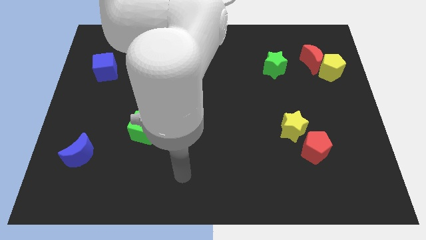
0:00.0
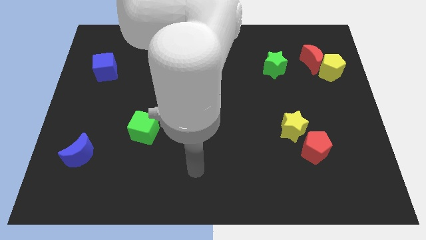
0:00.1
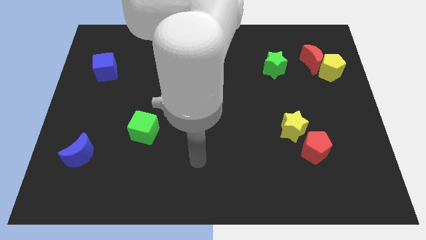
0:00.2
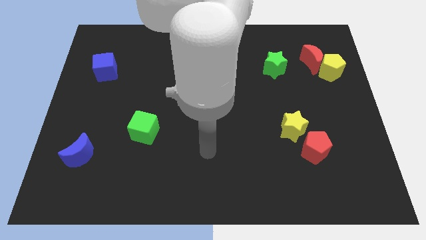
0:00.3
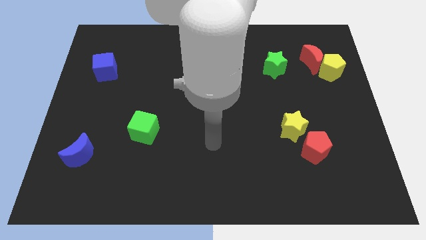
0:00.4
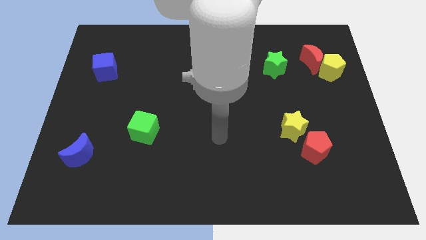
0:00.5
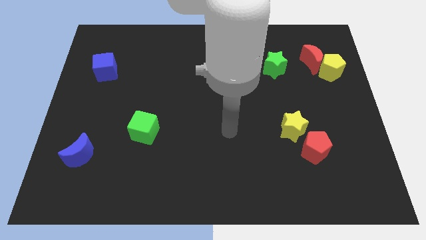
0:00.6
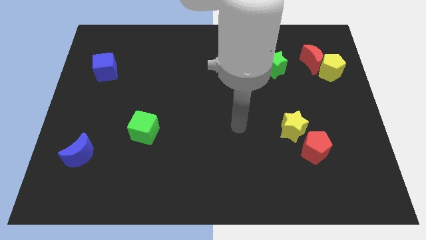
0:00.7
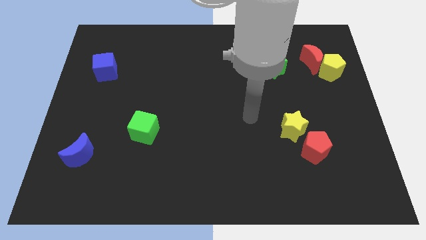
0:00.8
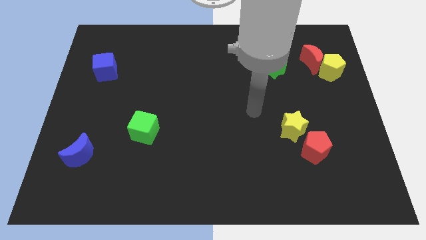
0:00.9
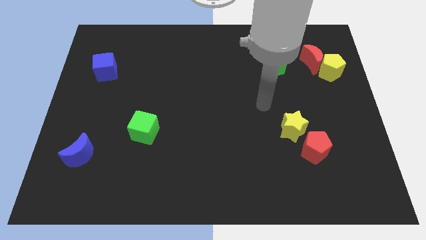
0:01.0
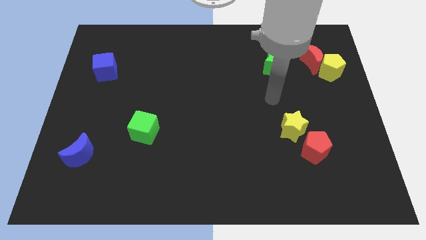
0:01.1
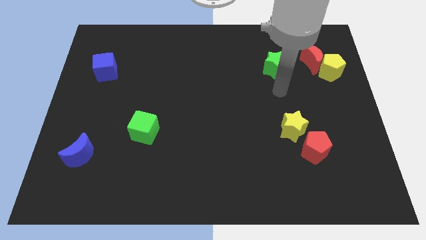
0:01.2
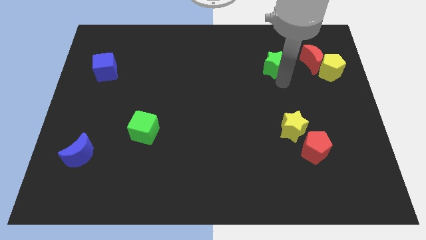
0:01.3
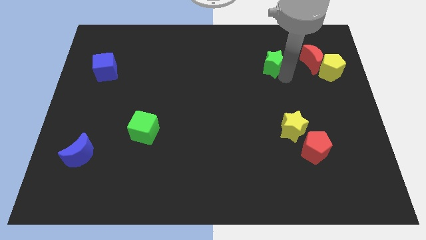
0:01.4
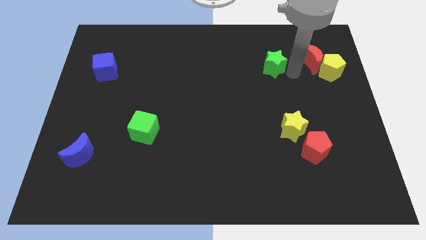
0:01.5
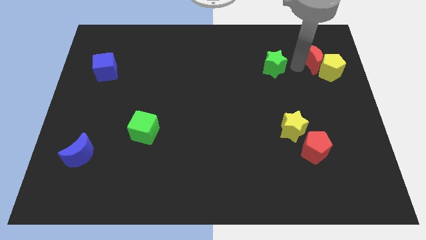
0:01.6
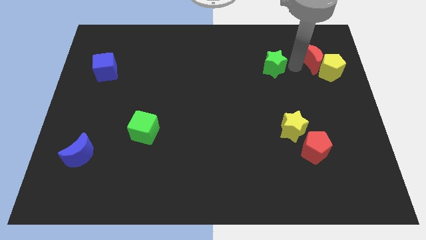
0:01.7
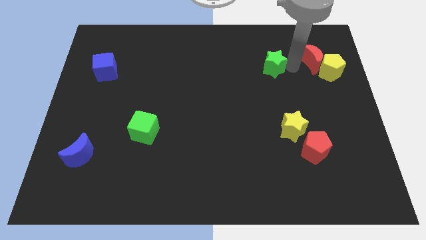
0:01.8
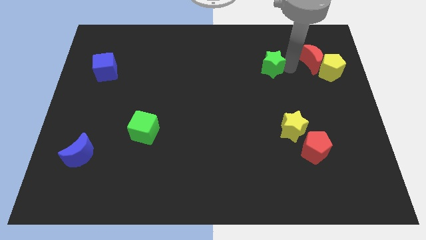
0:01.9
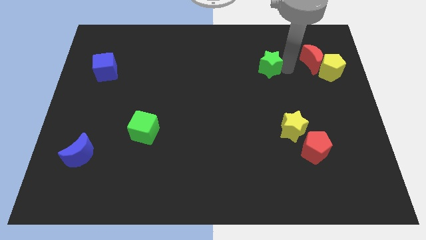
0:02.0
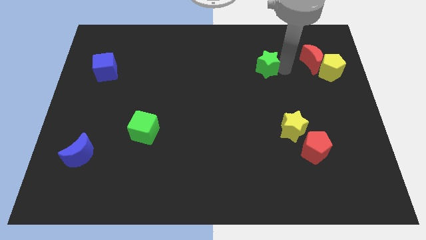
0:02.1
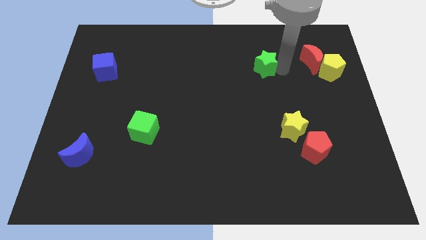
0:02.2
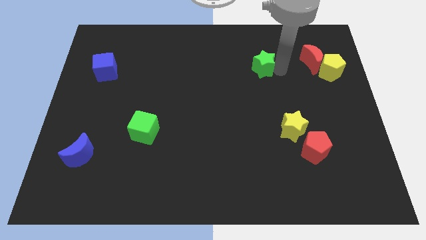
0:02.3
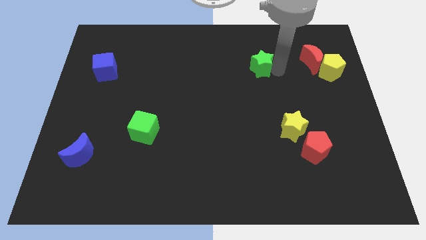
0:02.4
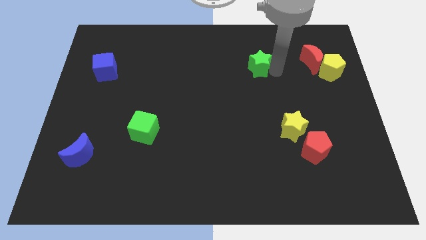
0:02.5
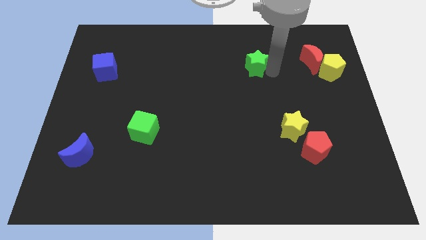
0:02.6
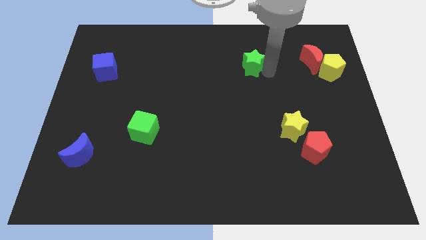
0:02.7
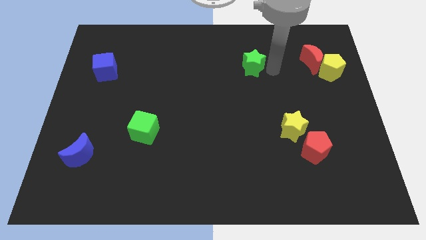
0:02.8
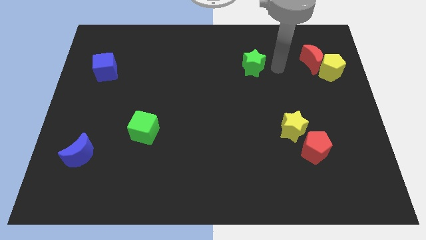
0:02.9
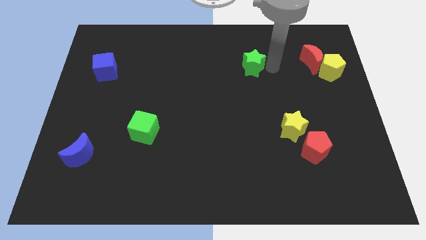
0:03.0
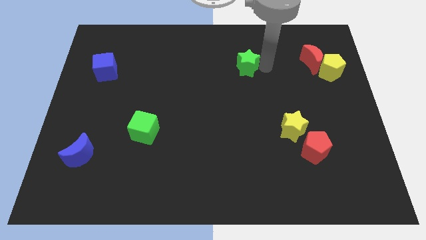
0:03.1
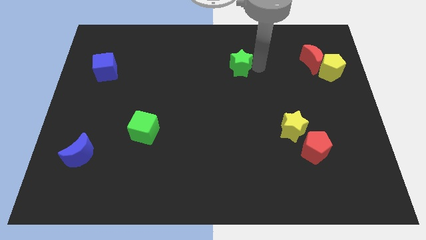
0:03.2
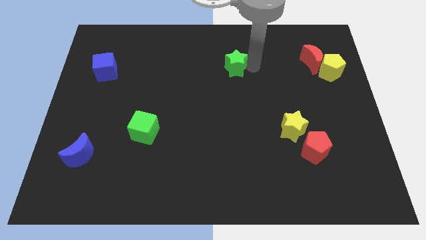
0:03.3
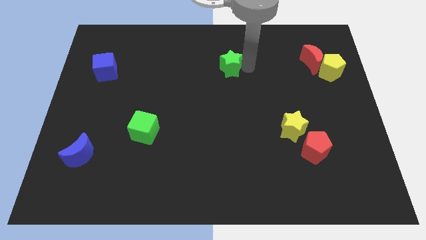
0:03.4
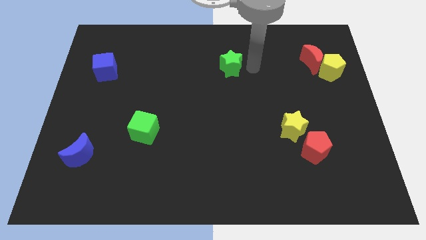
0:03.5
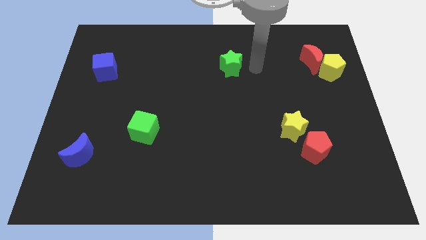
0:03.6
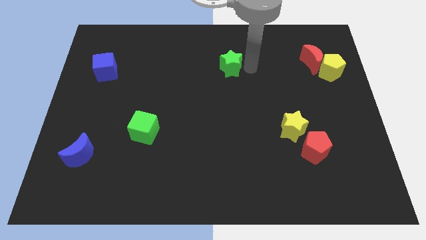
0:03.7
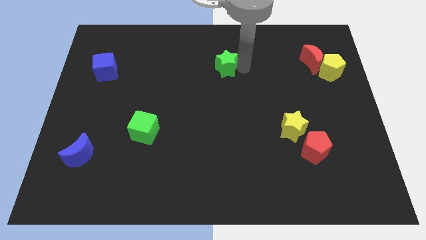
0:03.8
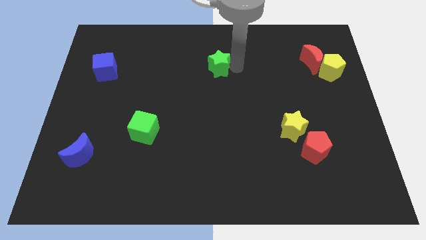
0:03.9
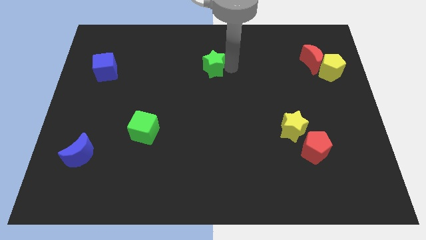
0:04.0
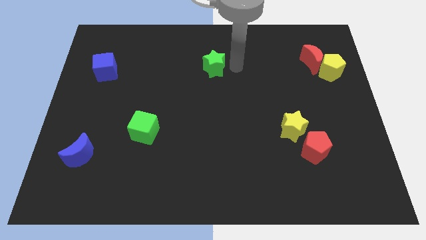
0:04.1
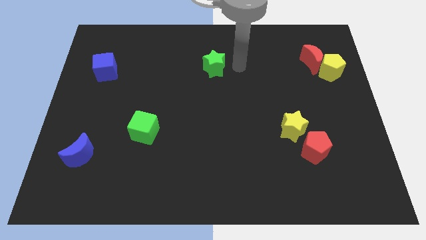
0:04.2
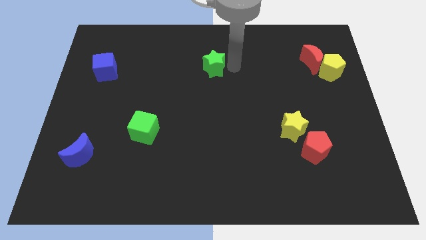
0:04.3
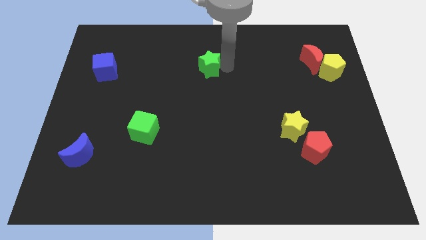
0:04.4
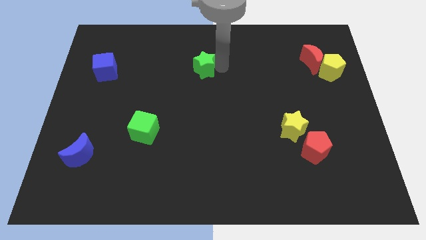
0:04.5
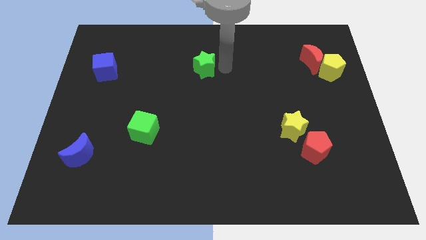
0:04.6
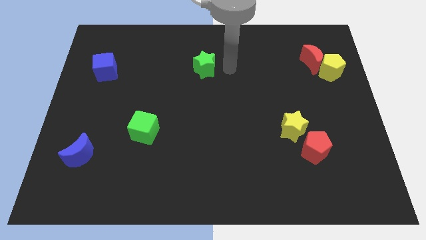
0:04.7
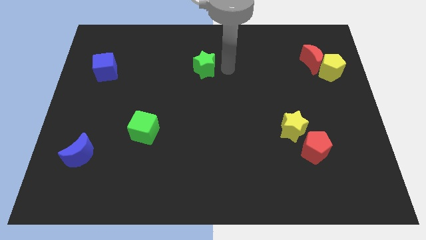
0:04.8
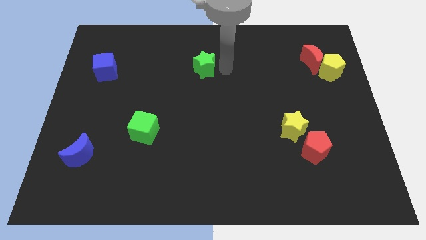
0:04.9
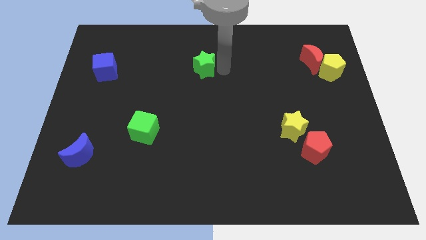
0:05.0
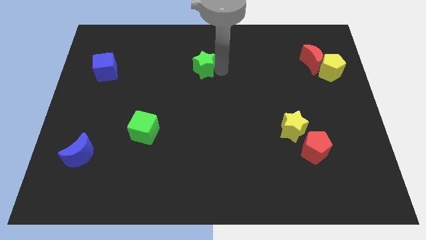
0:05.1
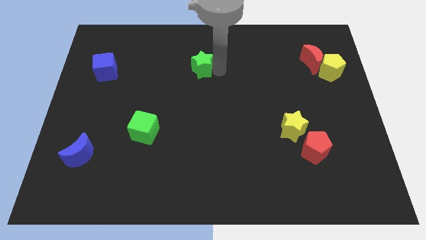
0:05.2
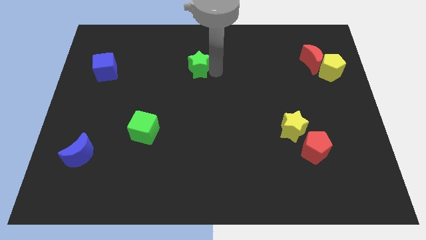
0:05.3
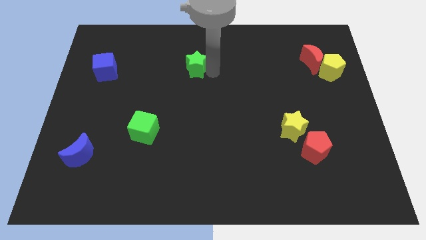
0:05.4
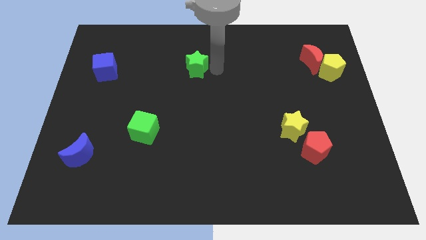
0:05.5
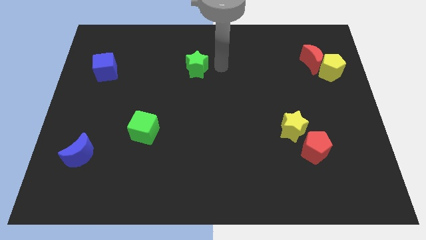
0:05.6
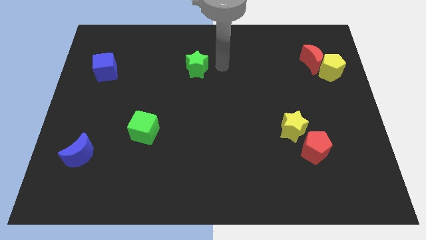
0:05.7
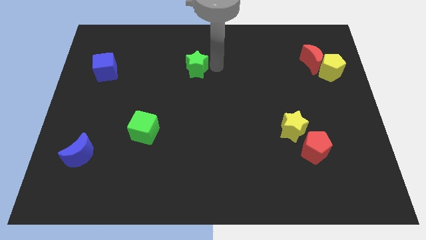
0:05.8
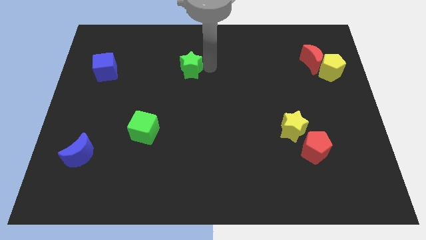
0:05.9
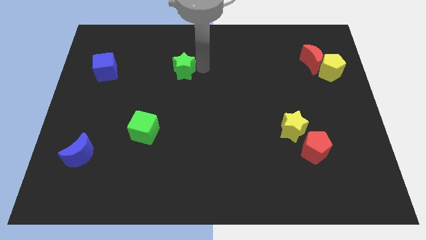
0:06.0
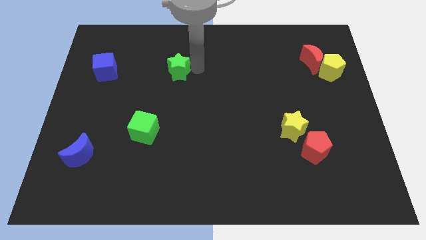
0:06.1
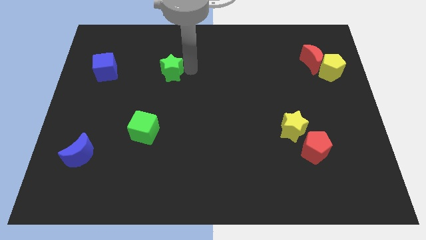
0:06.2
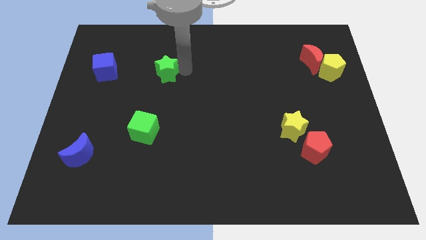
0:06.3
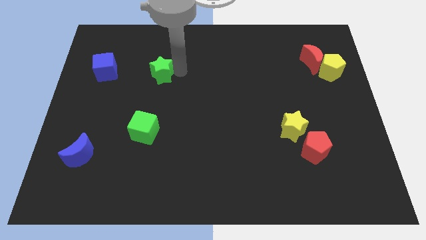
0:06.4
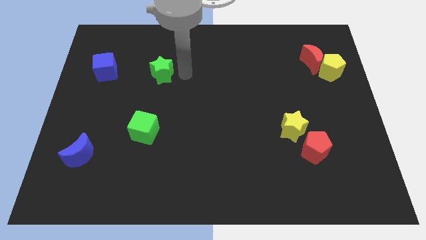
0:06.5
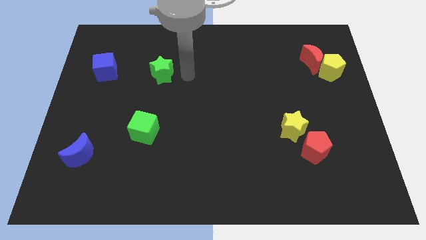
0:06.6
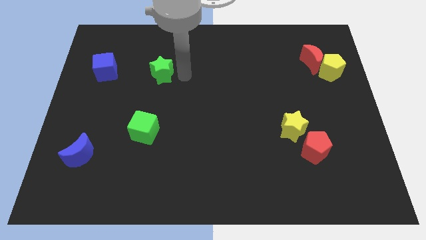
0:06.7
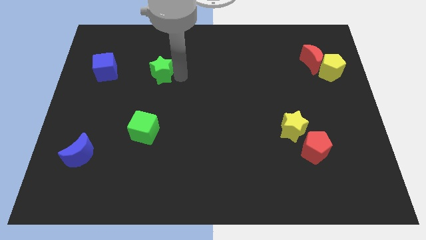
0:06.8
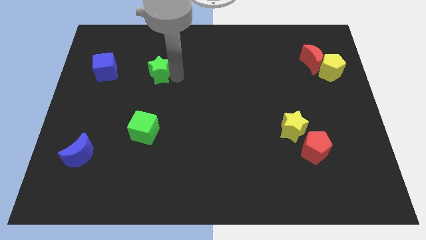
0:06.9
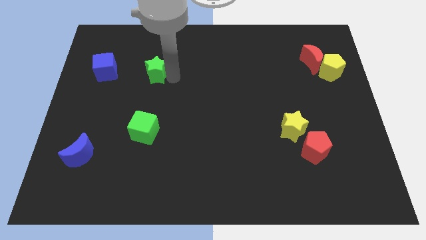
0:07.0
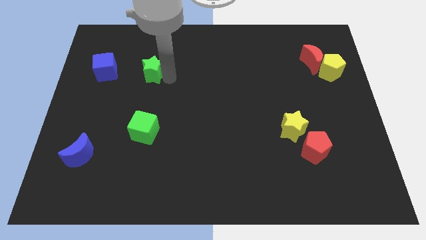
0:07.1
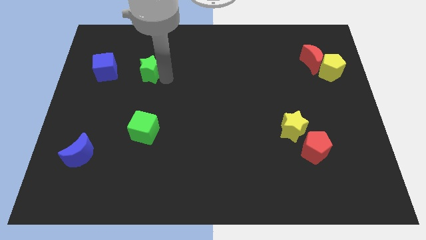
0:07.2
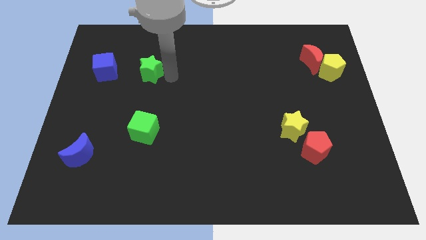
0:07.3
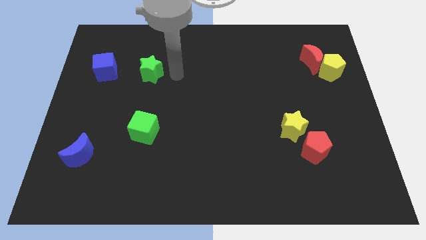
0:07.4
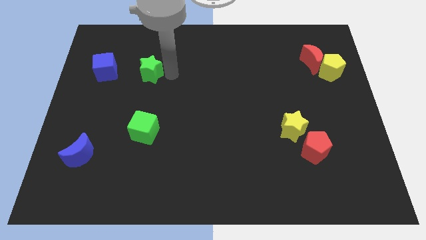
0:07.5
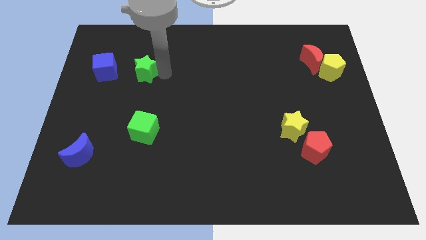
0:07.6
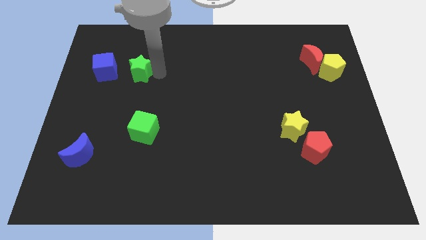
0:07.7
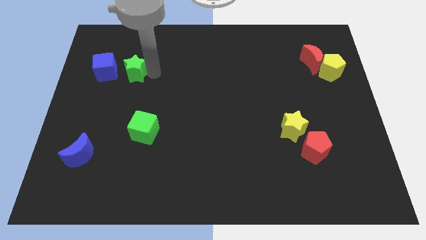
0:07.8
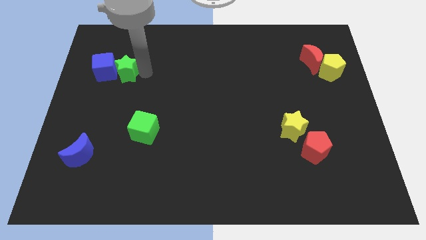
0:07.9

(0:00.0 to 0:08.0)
put the green star close to the blue cube
